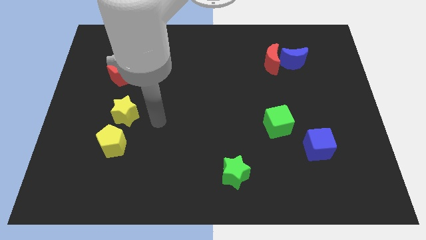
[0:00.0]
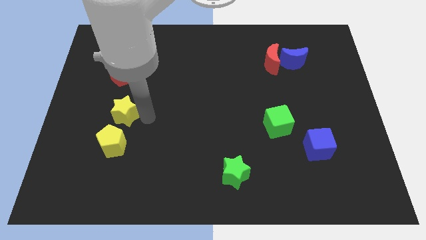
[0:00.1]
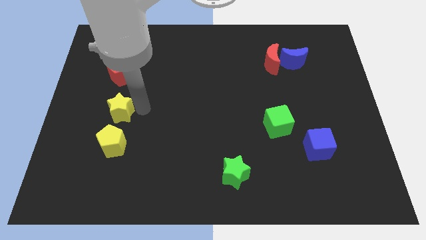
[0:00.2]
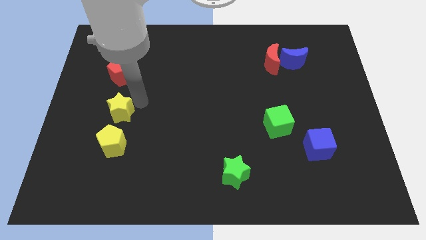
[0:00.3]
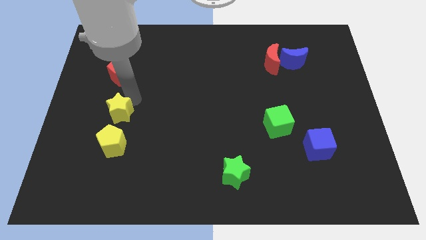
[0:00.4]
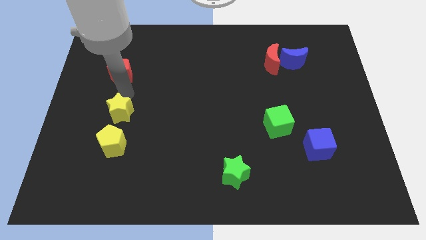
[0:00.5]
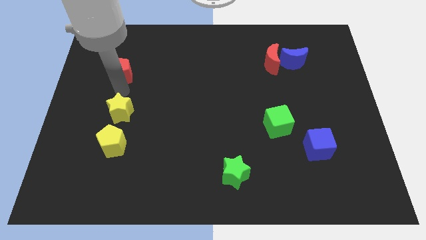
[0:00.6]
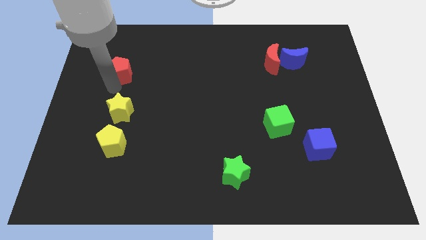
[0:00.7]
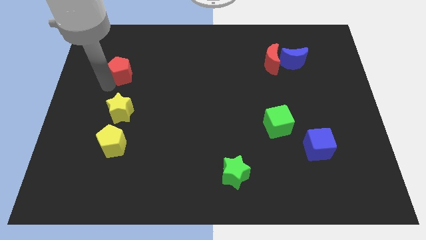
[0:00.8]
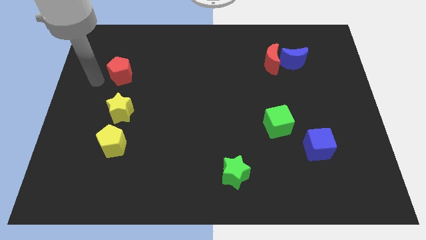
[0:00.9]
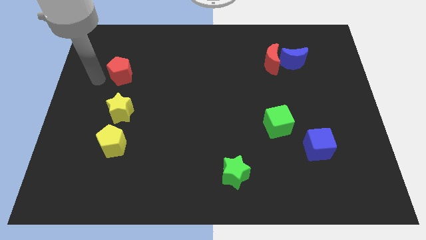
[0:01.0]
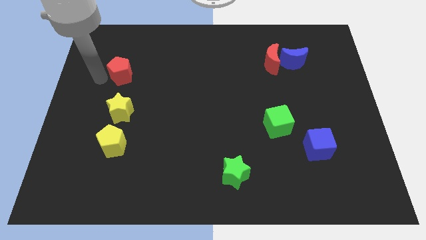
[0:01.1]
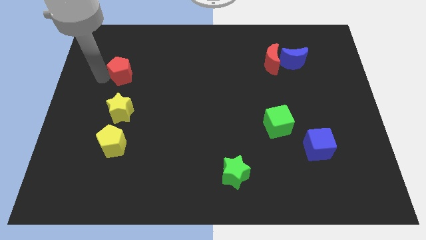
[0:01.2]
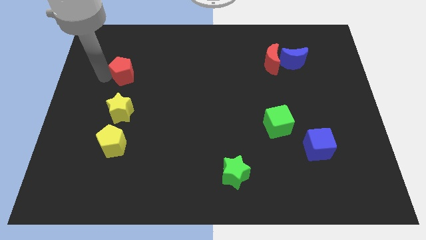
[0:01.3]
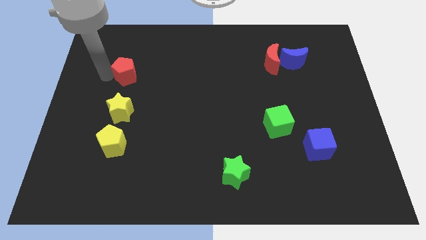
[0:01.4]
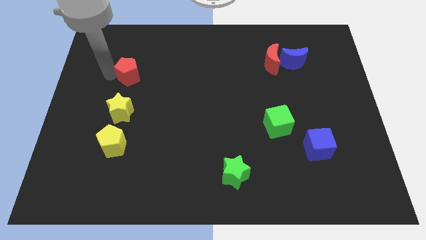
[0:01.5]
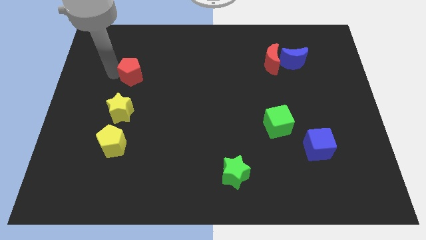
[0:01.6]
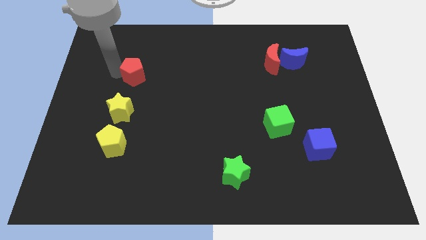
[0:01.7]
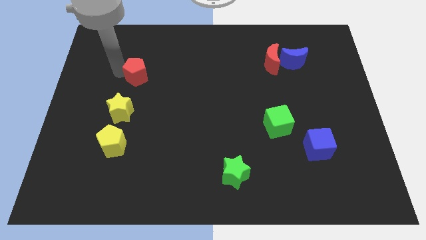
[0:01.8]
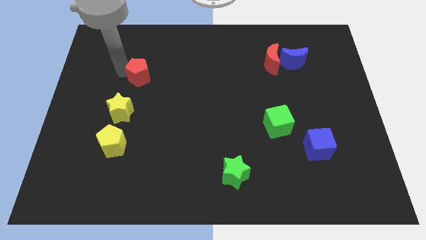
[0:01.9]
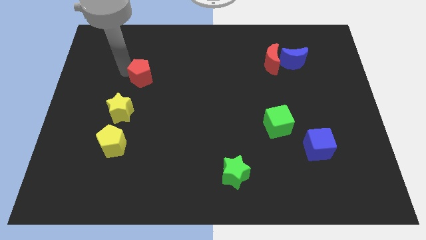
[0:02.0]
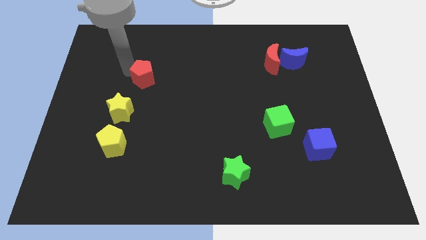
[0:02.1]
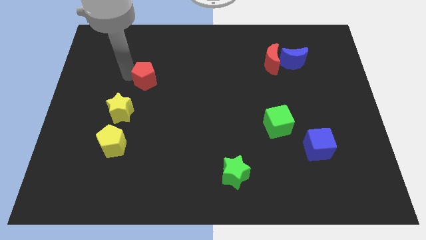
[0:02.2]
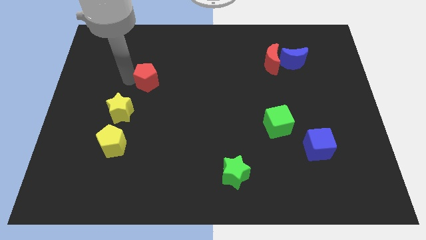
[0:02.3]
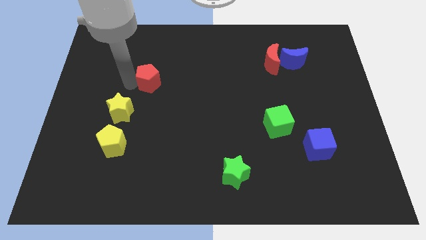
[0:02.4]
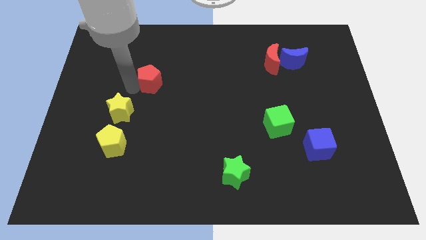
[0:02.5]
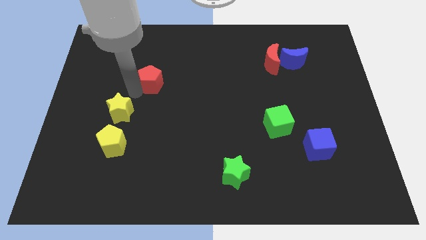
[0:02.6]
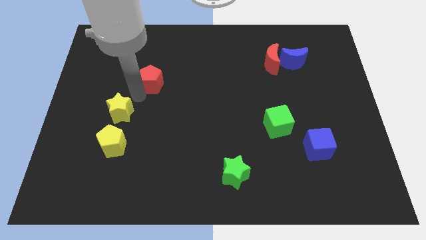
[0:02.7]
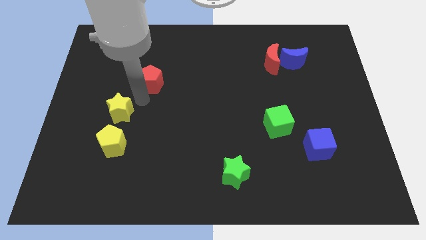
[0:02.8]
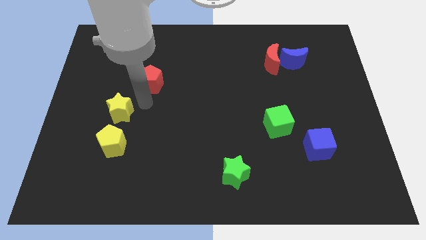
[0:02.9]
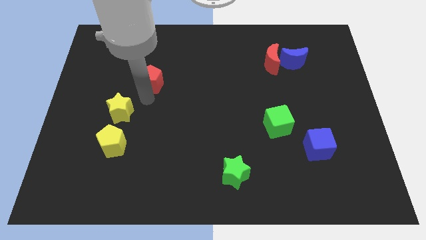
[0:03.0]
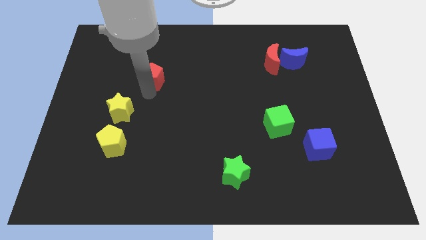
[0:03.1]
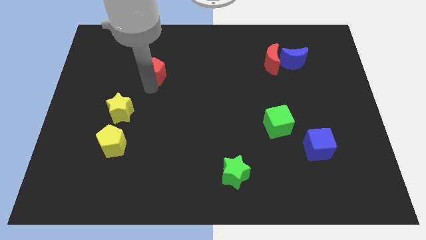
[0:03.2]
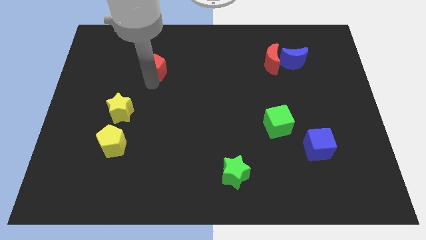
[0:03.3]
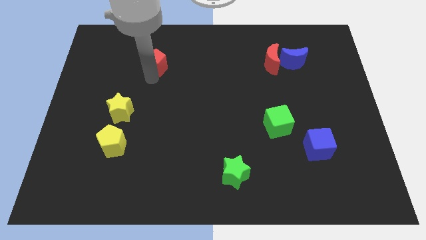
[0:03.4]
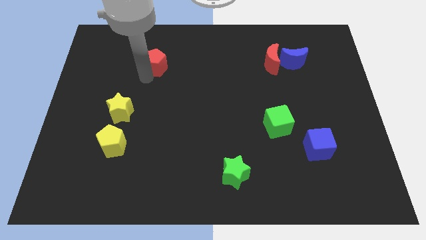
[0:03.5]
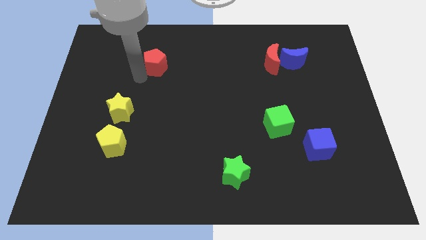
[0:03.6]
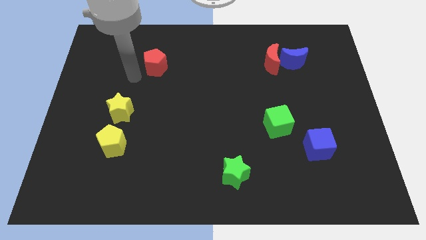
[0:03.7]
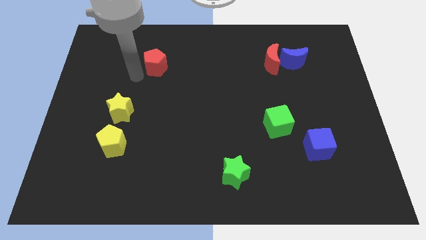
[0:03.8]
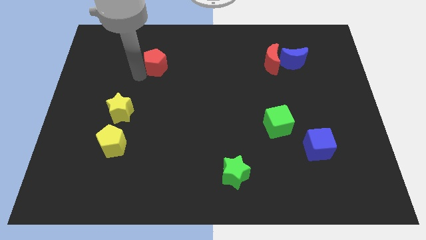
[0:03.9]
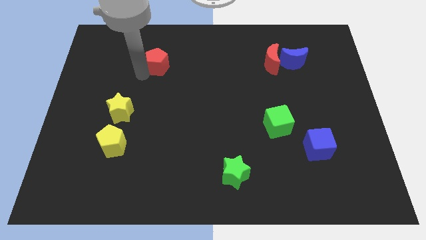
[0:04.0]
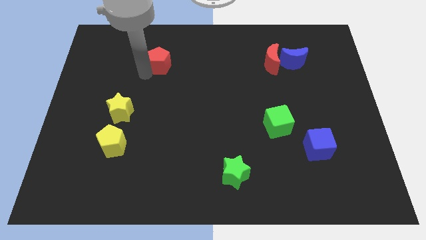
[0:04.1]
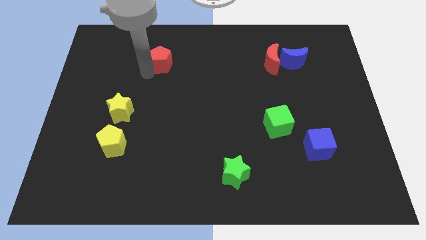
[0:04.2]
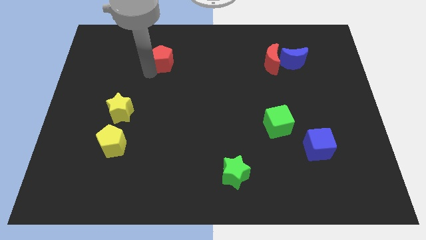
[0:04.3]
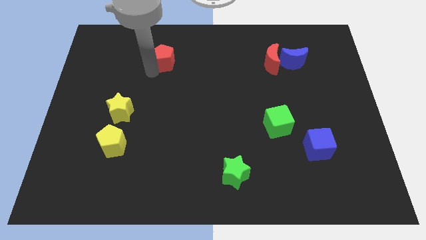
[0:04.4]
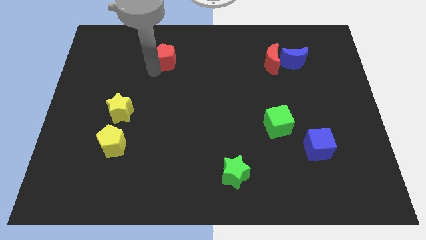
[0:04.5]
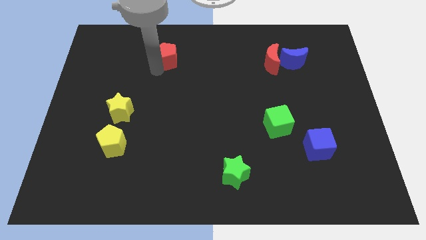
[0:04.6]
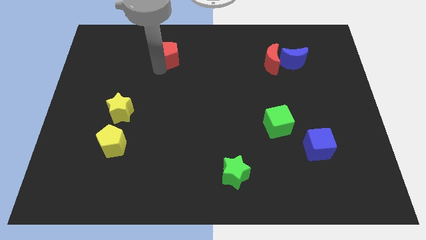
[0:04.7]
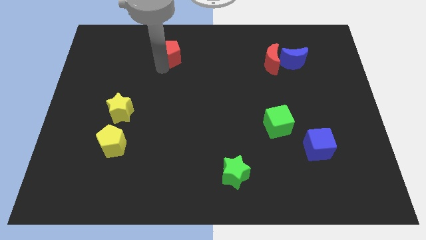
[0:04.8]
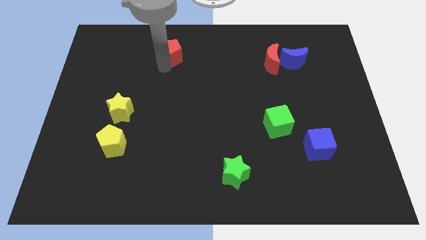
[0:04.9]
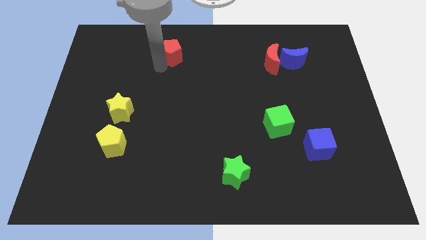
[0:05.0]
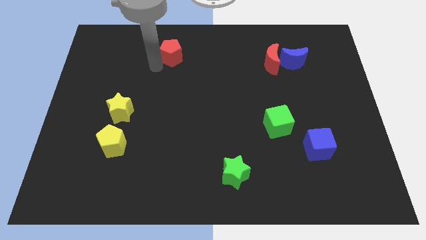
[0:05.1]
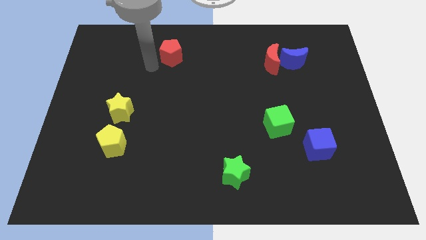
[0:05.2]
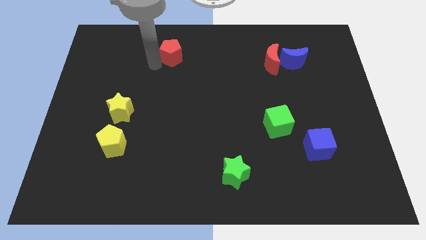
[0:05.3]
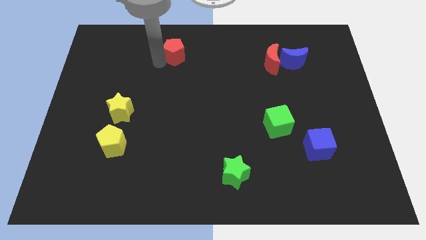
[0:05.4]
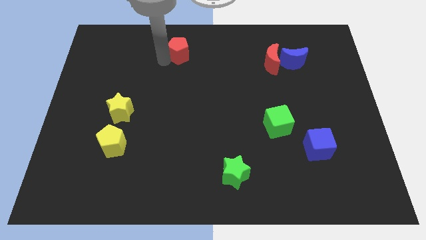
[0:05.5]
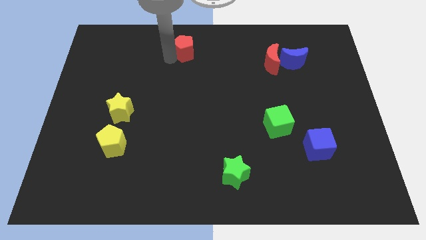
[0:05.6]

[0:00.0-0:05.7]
put the red pentagon to the top side
